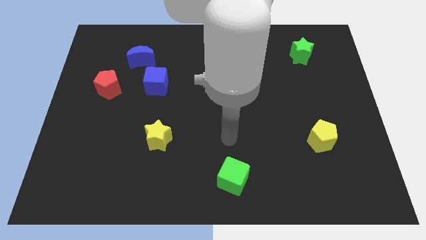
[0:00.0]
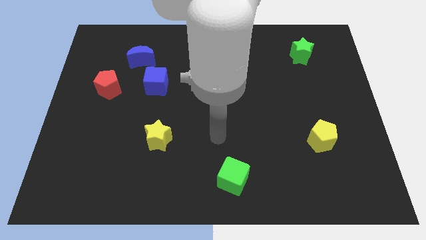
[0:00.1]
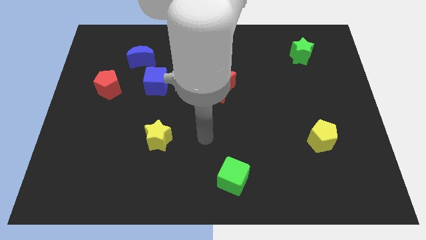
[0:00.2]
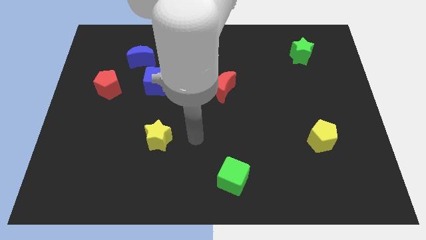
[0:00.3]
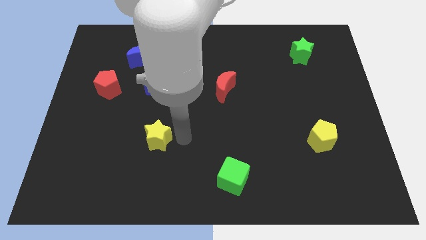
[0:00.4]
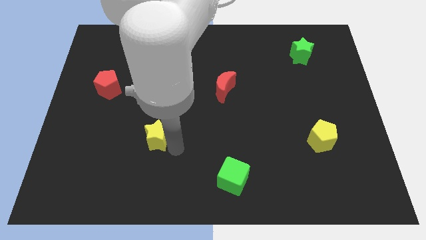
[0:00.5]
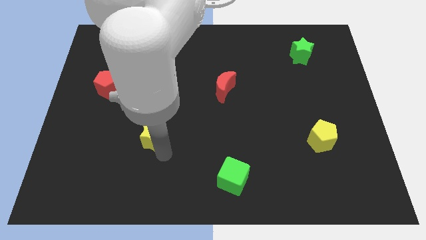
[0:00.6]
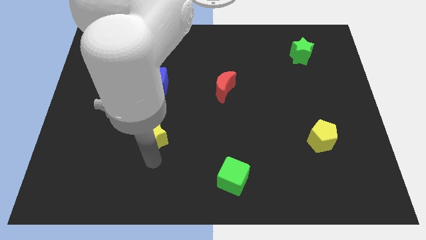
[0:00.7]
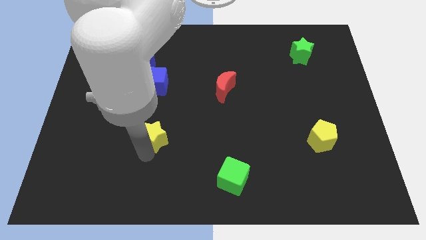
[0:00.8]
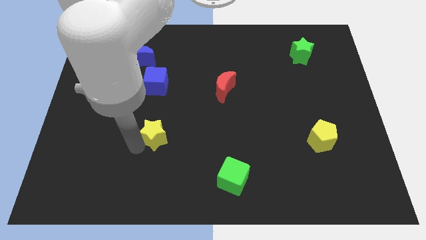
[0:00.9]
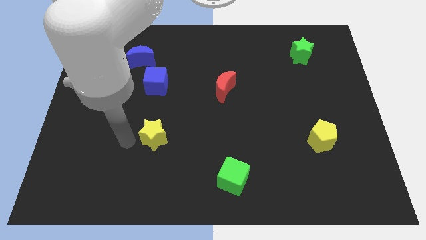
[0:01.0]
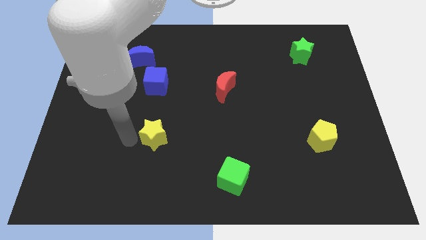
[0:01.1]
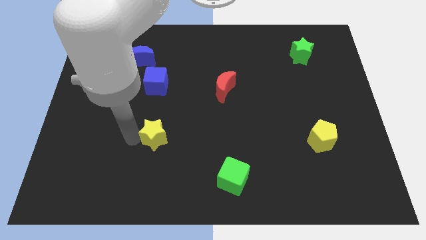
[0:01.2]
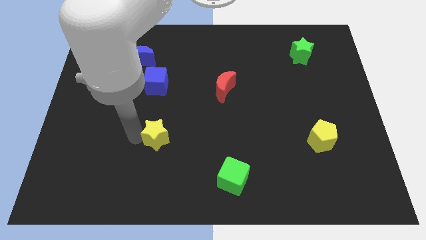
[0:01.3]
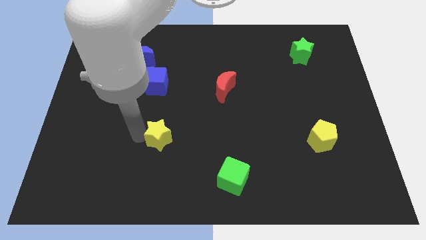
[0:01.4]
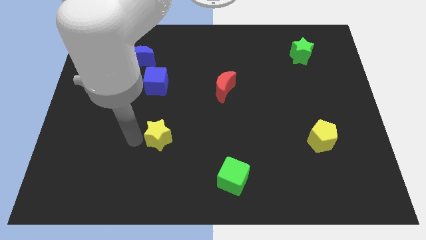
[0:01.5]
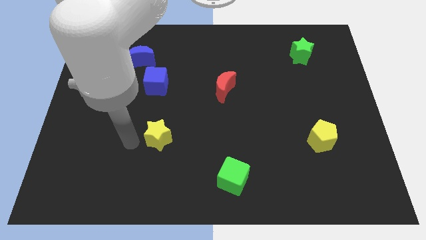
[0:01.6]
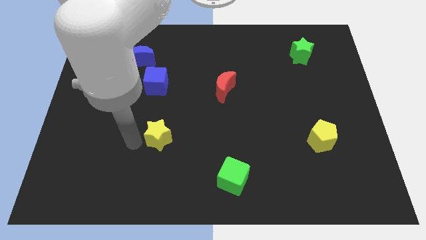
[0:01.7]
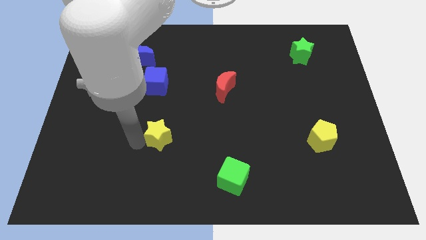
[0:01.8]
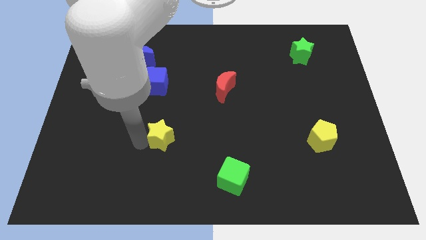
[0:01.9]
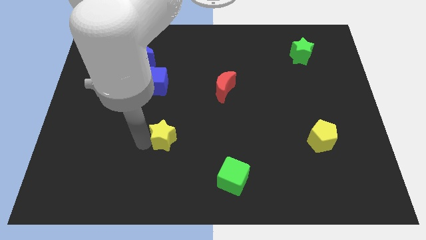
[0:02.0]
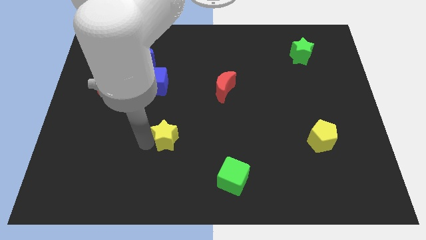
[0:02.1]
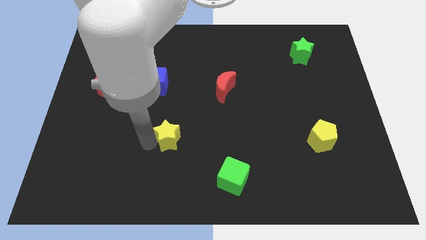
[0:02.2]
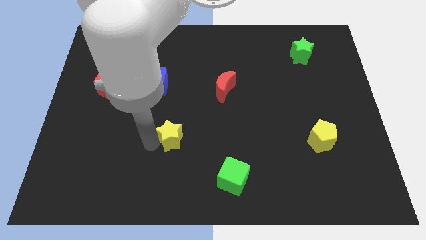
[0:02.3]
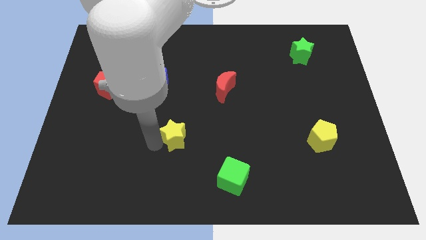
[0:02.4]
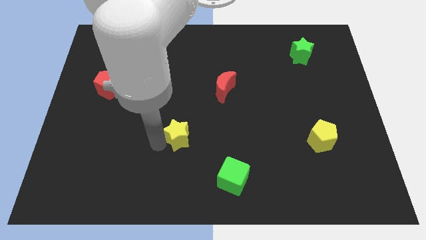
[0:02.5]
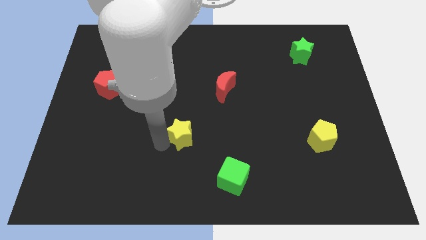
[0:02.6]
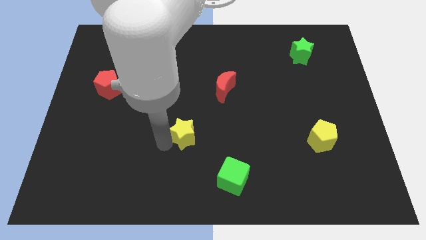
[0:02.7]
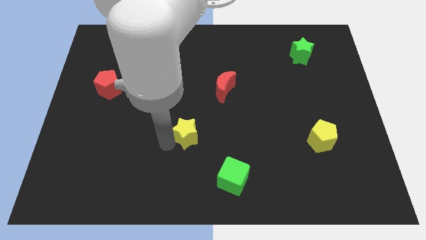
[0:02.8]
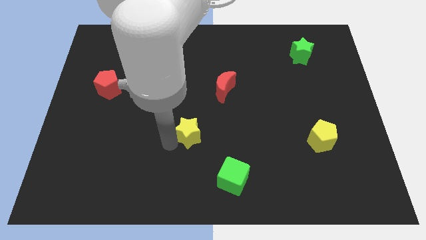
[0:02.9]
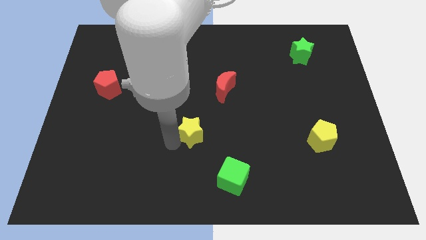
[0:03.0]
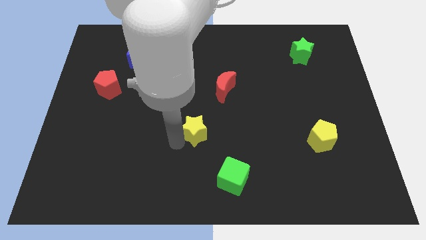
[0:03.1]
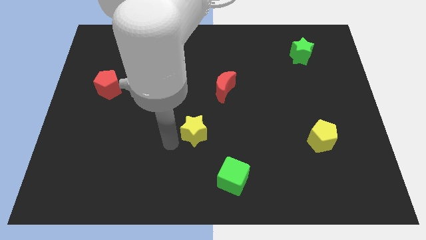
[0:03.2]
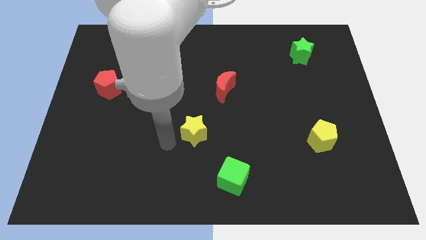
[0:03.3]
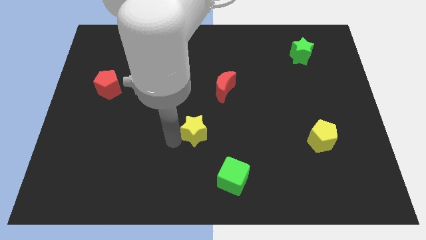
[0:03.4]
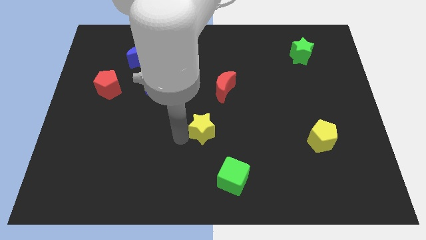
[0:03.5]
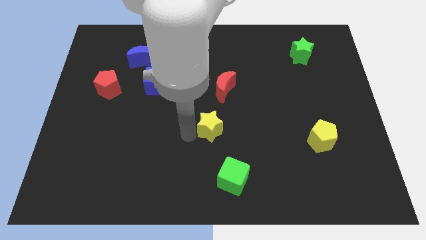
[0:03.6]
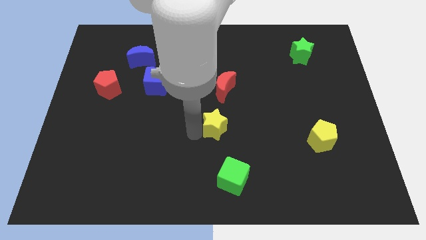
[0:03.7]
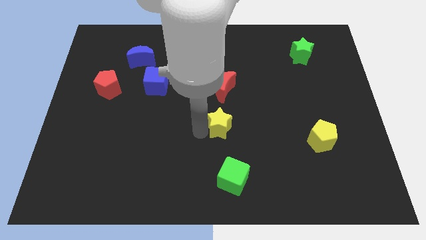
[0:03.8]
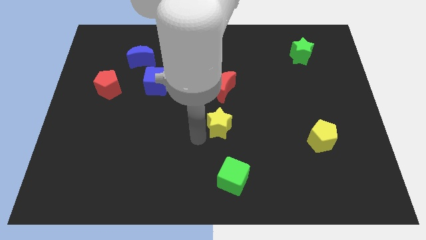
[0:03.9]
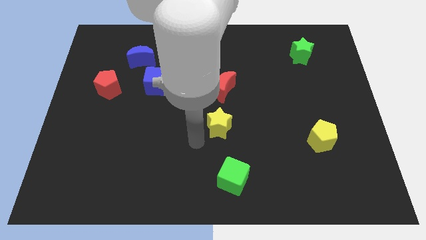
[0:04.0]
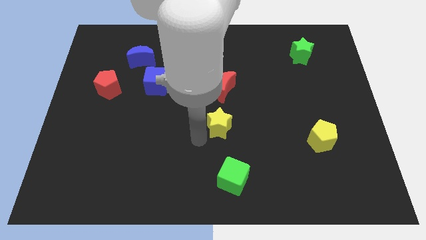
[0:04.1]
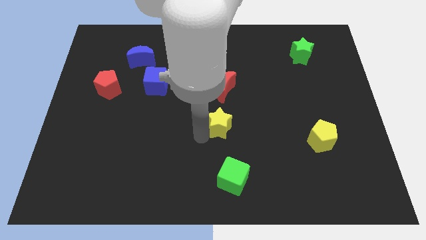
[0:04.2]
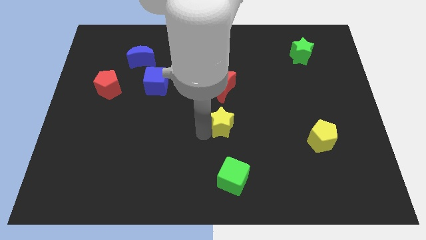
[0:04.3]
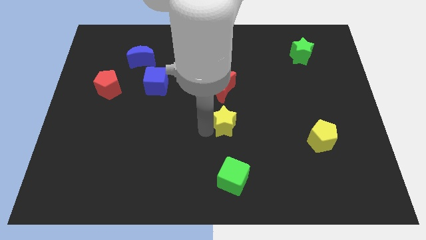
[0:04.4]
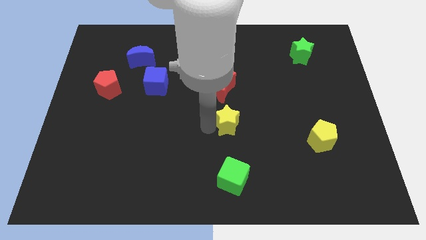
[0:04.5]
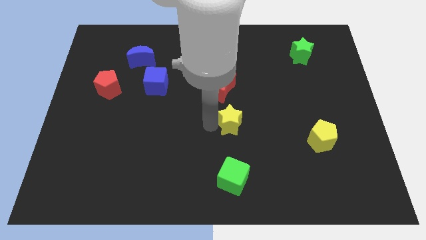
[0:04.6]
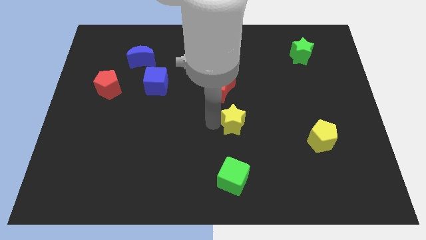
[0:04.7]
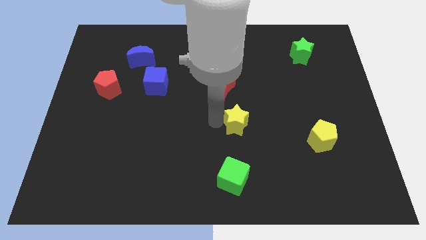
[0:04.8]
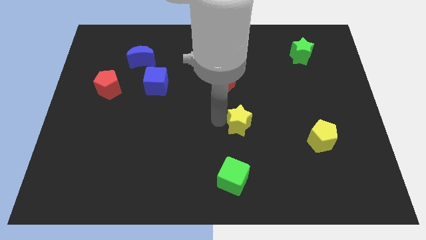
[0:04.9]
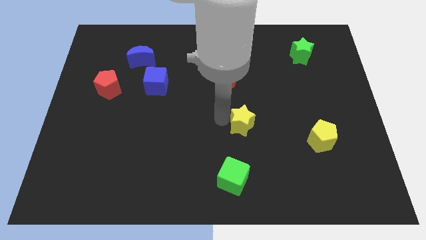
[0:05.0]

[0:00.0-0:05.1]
put the yellow star to the bottom right side of the red moon

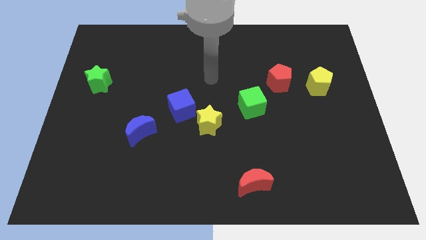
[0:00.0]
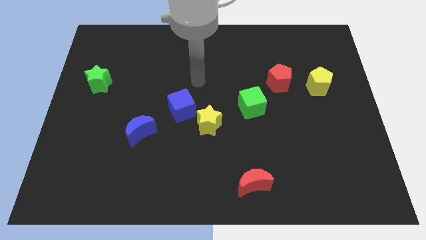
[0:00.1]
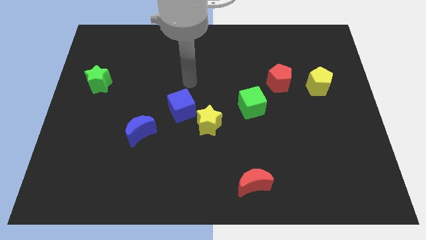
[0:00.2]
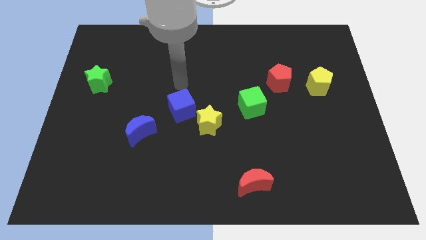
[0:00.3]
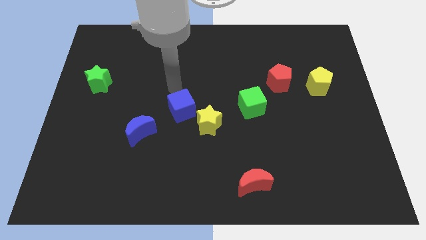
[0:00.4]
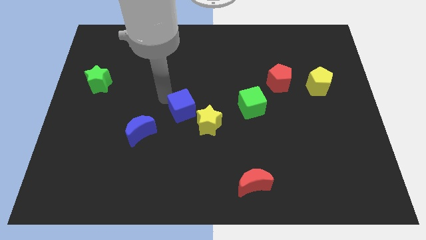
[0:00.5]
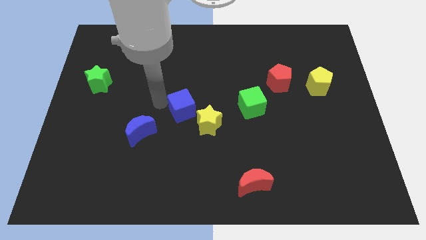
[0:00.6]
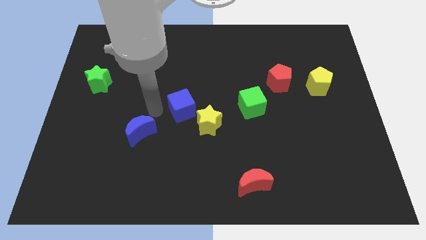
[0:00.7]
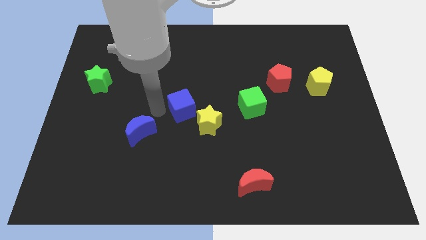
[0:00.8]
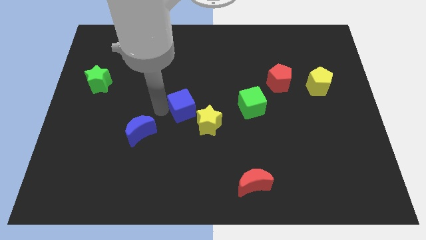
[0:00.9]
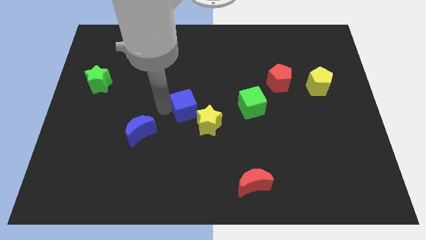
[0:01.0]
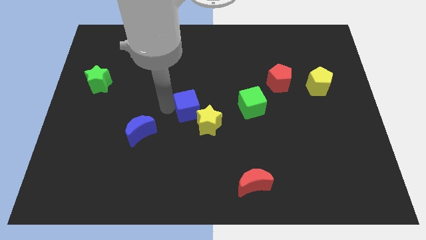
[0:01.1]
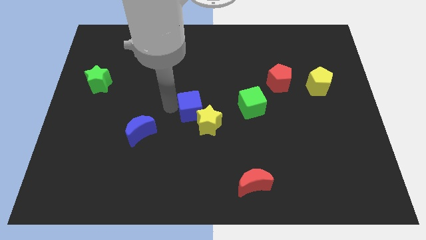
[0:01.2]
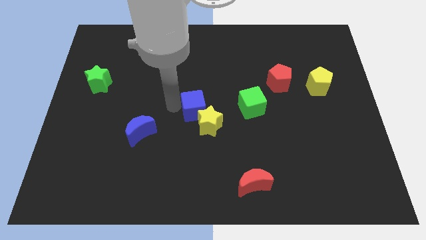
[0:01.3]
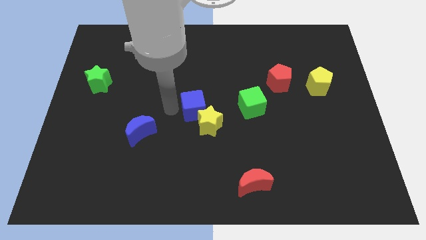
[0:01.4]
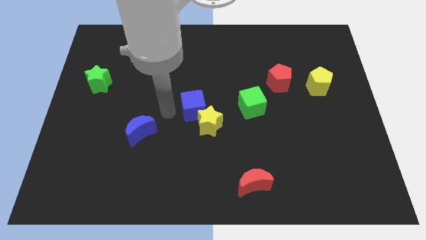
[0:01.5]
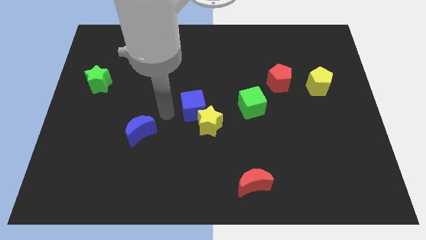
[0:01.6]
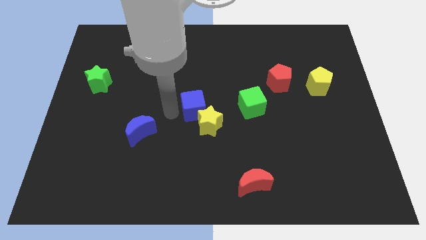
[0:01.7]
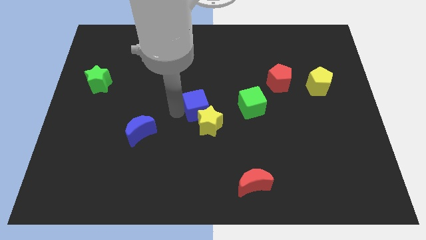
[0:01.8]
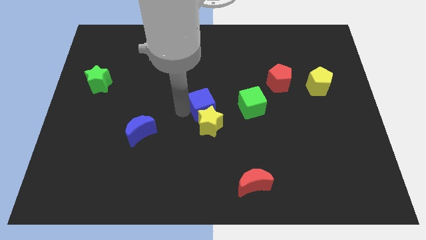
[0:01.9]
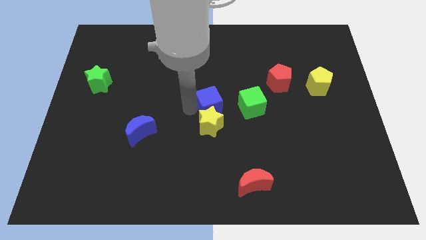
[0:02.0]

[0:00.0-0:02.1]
put the blue cube diagonally up and to the right of the yellow star
